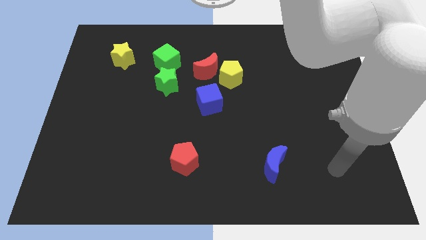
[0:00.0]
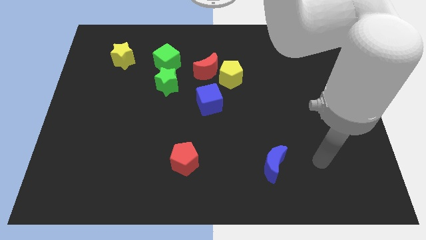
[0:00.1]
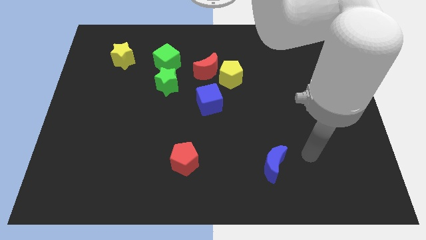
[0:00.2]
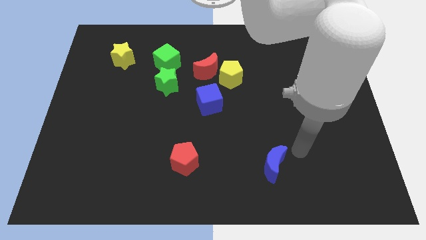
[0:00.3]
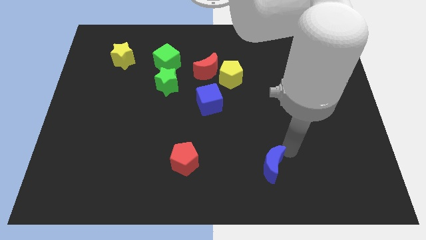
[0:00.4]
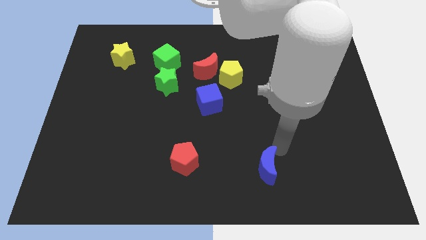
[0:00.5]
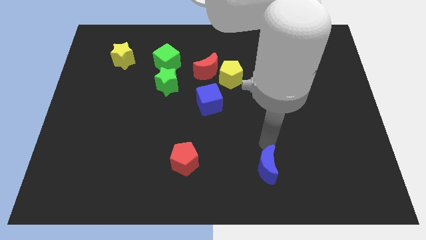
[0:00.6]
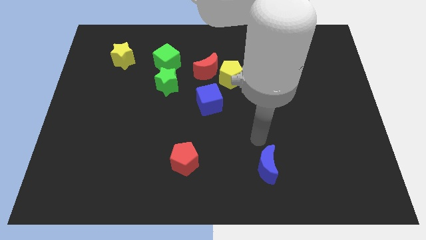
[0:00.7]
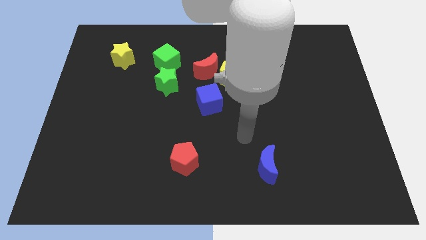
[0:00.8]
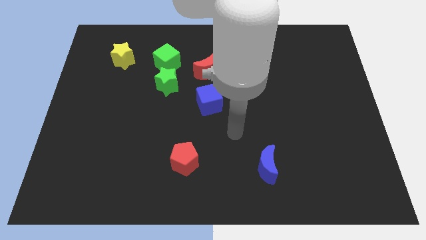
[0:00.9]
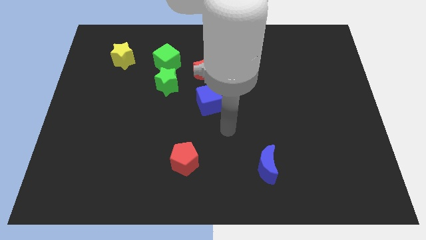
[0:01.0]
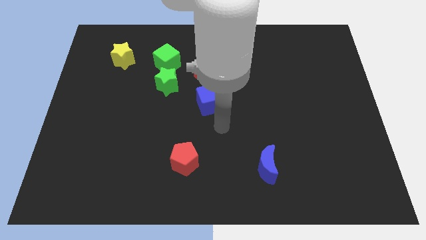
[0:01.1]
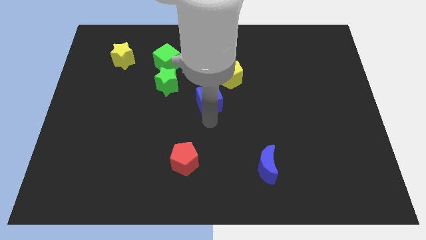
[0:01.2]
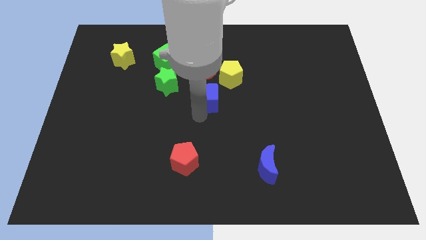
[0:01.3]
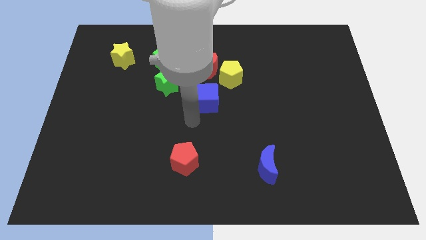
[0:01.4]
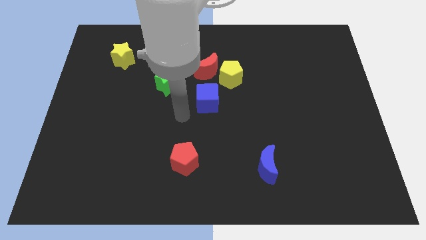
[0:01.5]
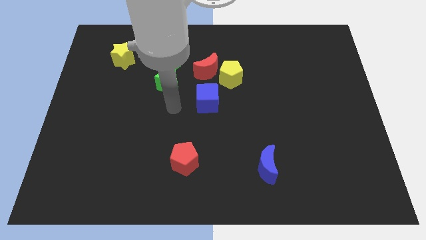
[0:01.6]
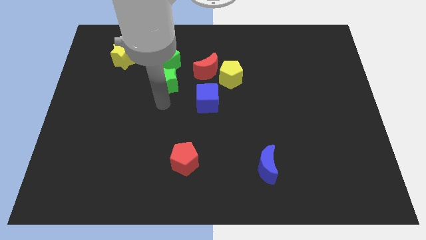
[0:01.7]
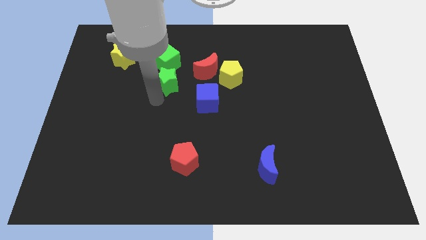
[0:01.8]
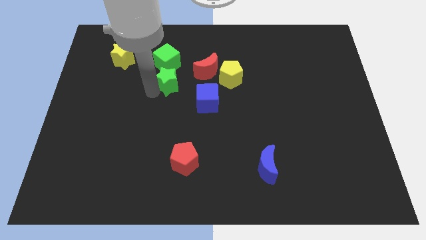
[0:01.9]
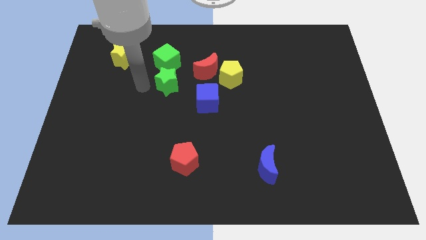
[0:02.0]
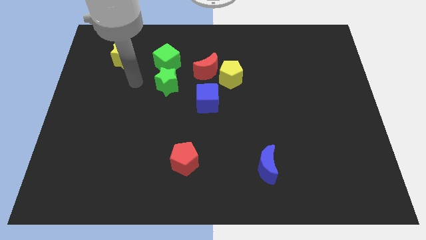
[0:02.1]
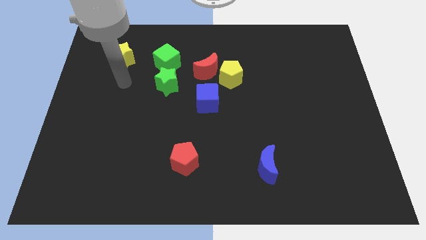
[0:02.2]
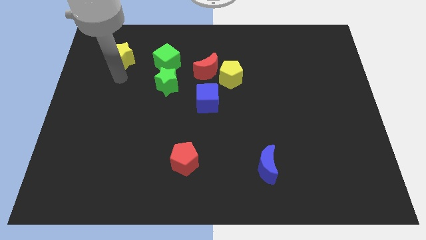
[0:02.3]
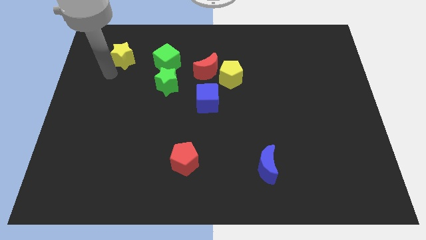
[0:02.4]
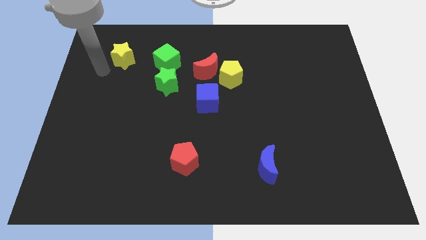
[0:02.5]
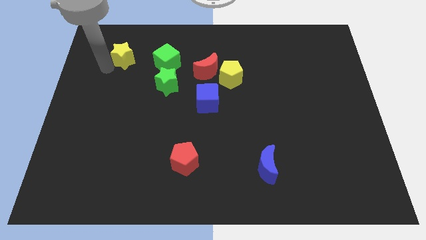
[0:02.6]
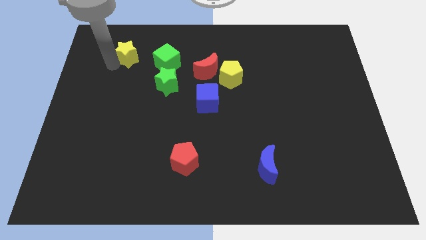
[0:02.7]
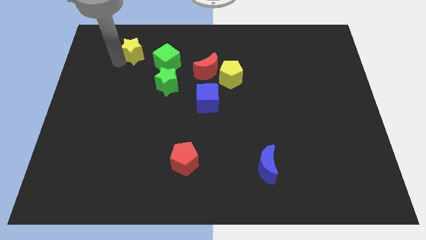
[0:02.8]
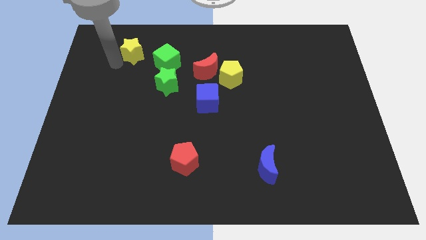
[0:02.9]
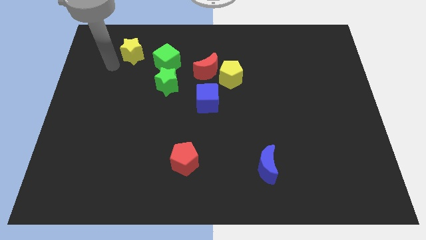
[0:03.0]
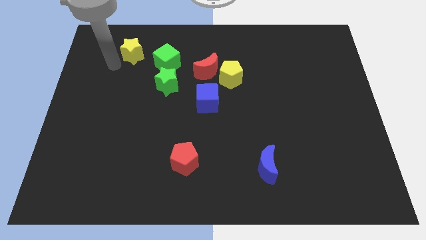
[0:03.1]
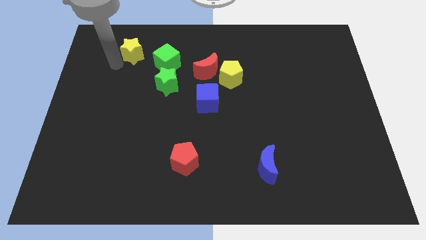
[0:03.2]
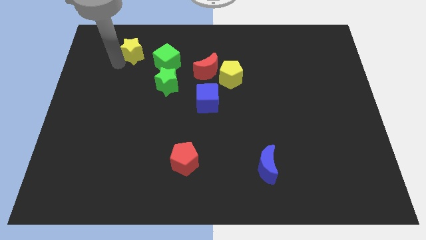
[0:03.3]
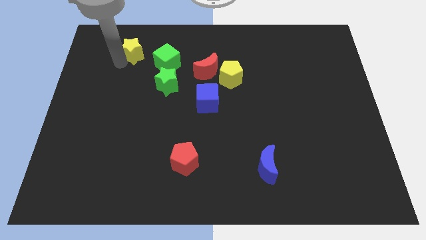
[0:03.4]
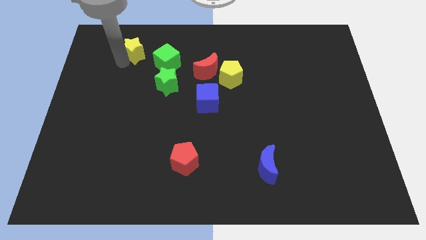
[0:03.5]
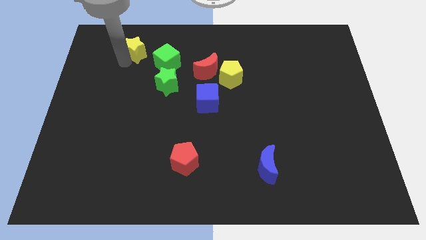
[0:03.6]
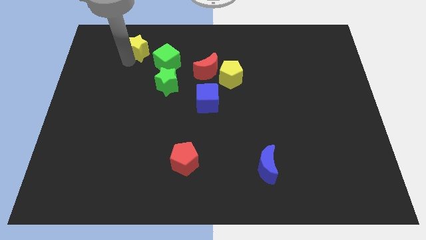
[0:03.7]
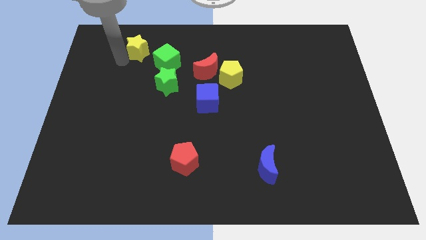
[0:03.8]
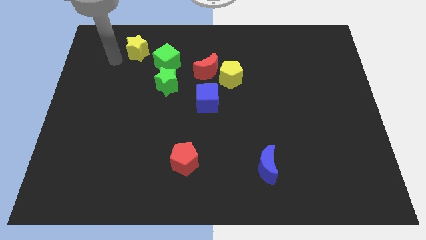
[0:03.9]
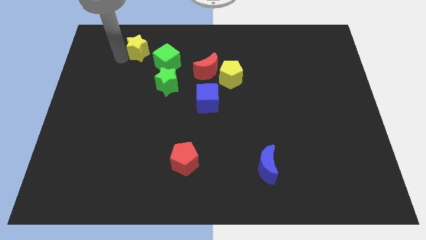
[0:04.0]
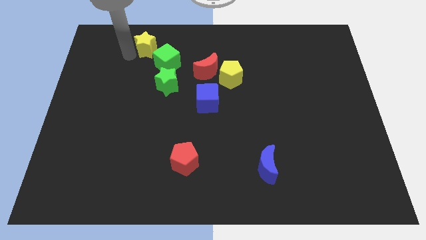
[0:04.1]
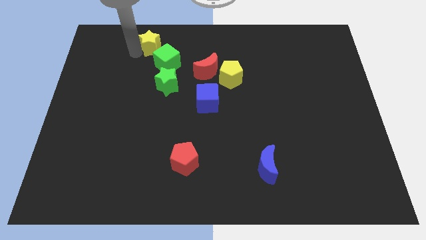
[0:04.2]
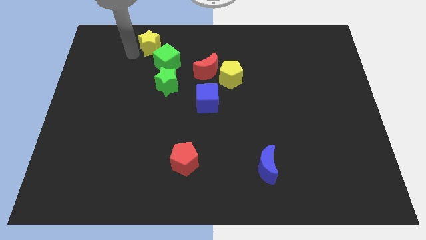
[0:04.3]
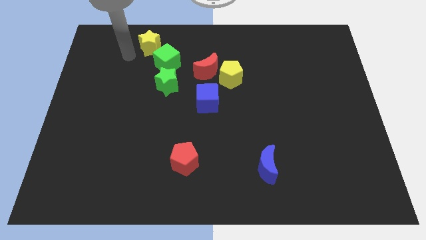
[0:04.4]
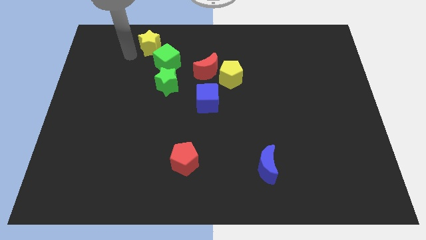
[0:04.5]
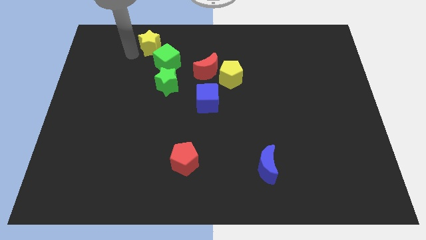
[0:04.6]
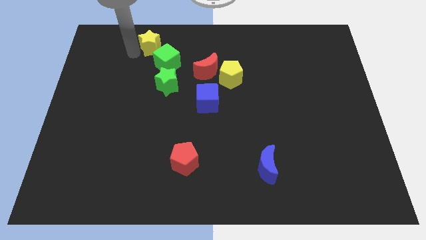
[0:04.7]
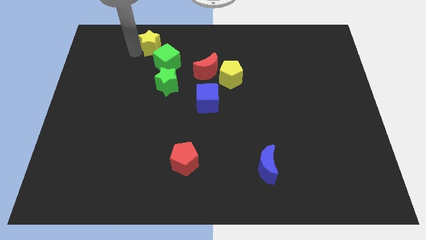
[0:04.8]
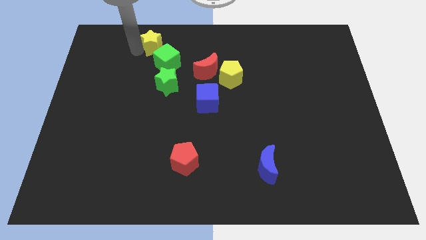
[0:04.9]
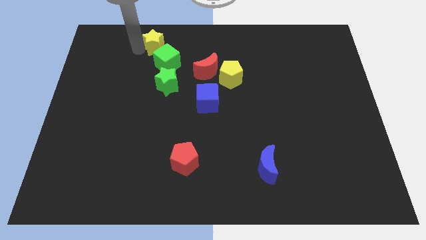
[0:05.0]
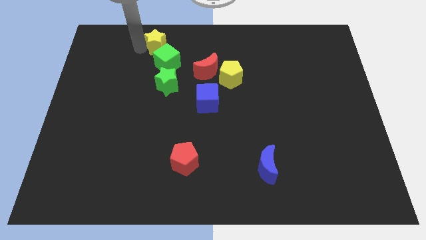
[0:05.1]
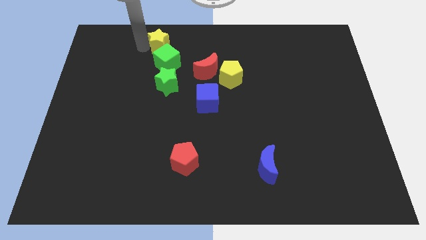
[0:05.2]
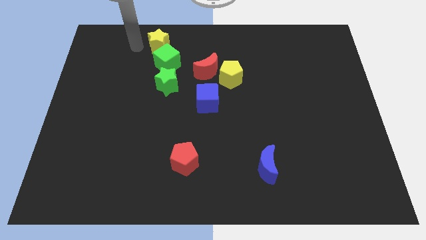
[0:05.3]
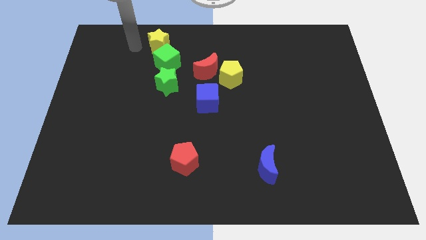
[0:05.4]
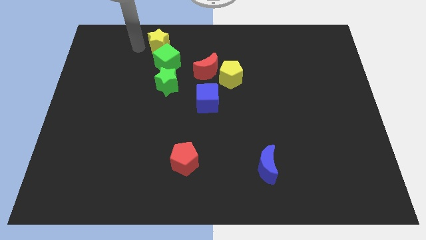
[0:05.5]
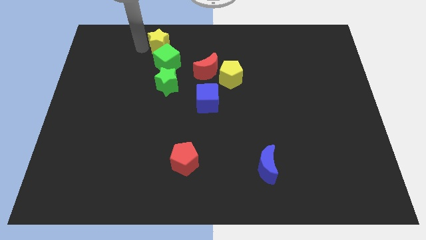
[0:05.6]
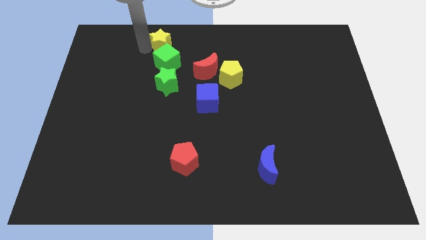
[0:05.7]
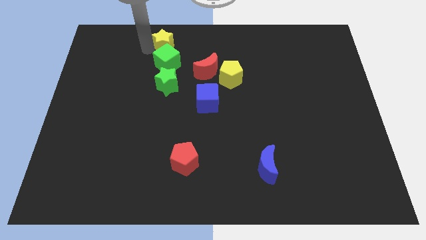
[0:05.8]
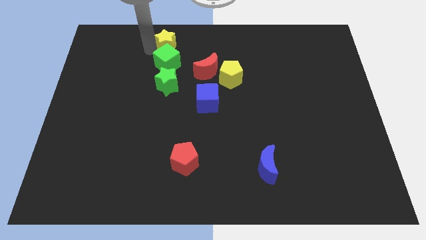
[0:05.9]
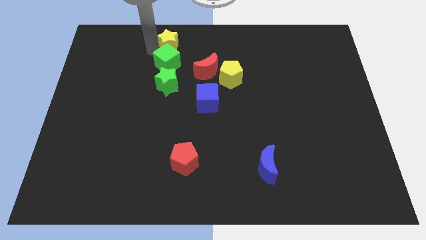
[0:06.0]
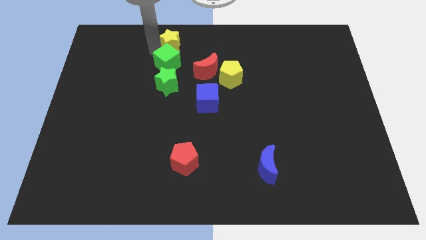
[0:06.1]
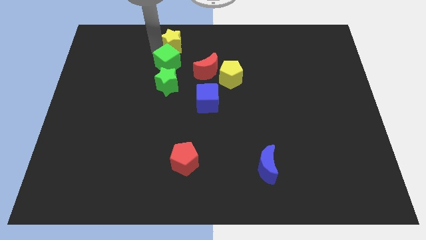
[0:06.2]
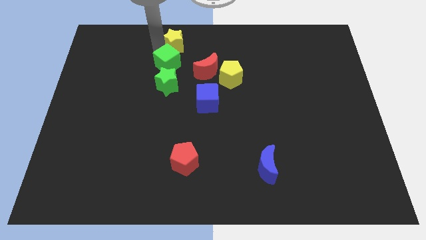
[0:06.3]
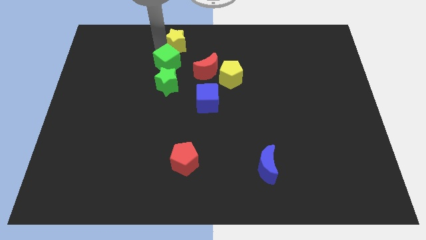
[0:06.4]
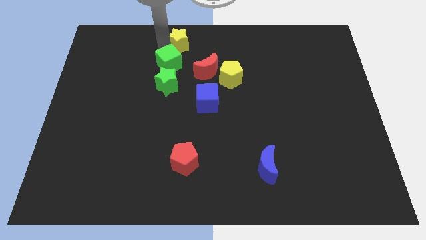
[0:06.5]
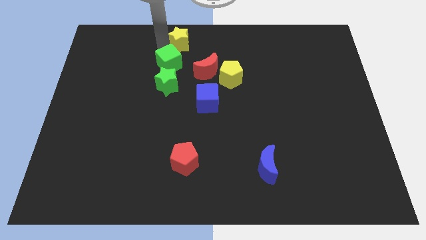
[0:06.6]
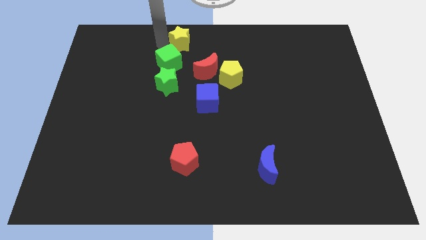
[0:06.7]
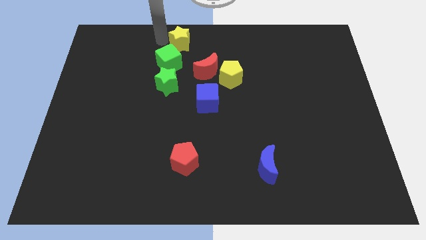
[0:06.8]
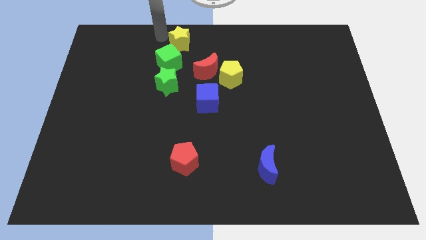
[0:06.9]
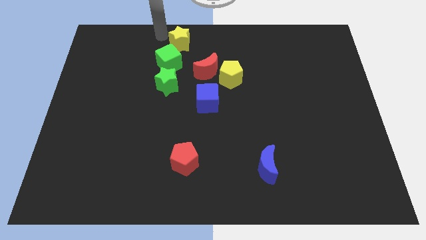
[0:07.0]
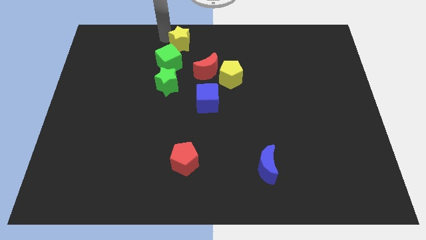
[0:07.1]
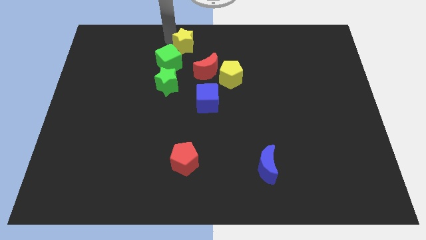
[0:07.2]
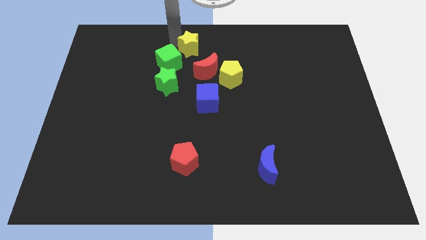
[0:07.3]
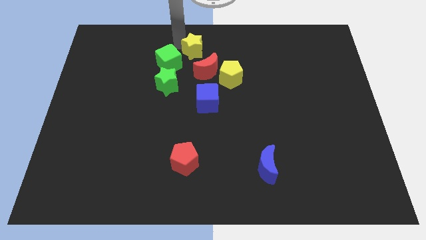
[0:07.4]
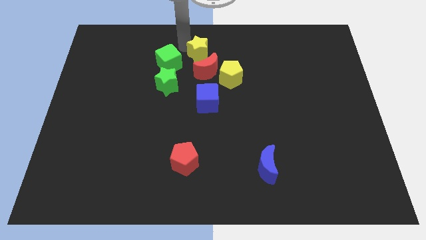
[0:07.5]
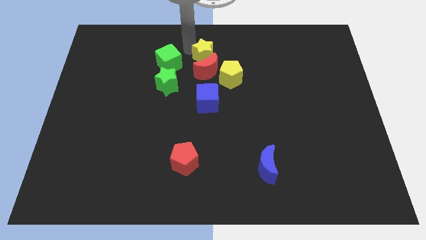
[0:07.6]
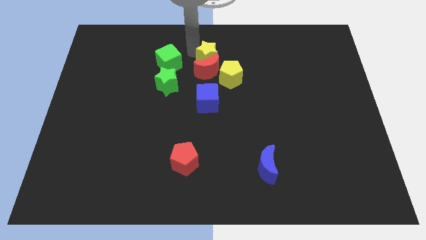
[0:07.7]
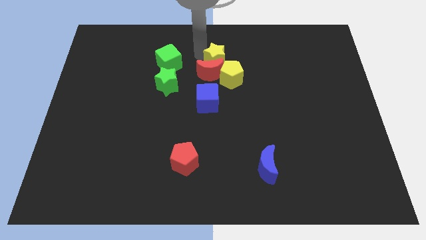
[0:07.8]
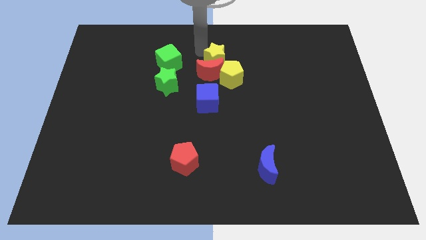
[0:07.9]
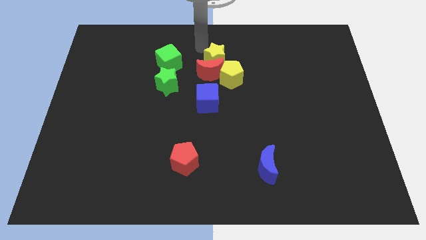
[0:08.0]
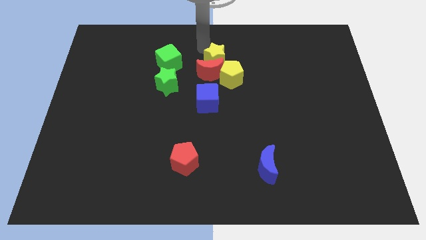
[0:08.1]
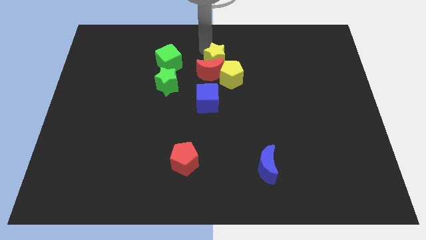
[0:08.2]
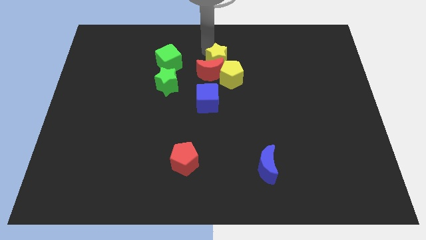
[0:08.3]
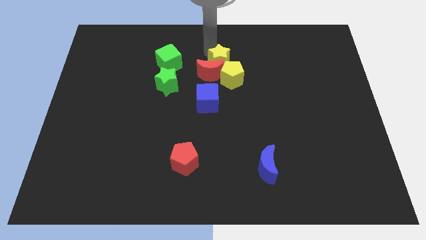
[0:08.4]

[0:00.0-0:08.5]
push the yellow star close to the yellow pentagon
